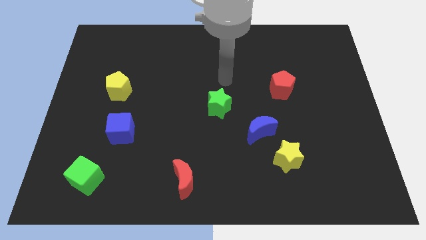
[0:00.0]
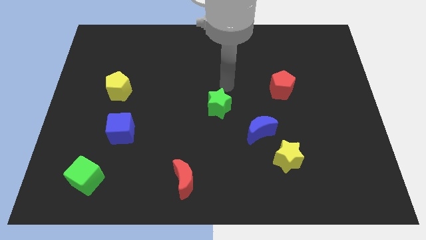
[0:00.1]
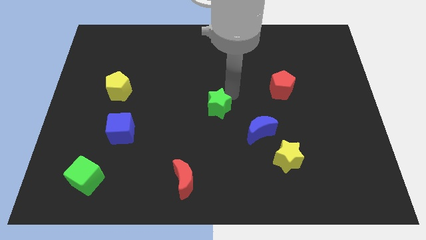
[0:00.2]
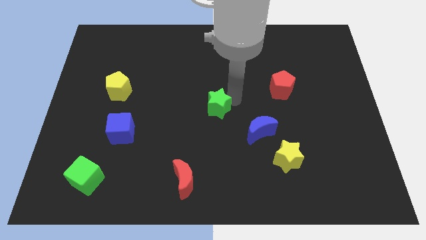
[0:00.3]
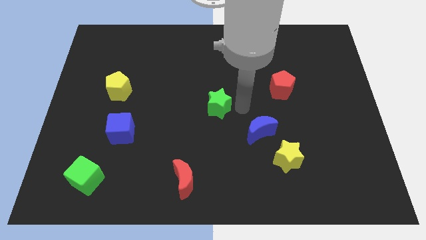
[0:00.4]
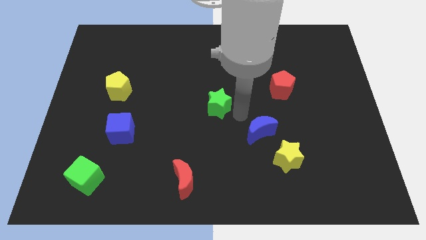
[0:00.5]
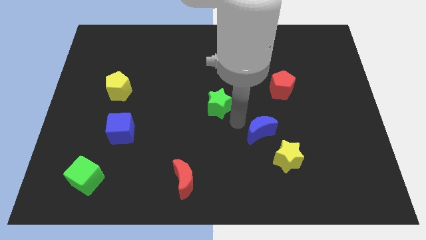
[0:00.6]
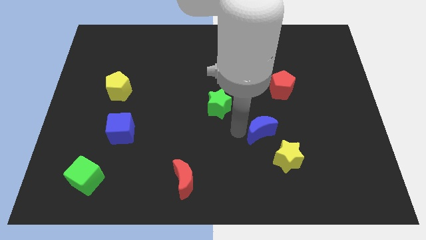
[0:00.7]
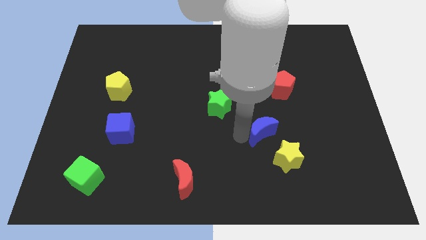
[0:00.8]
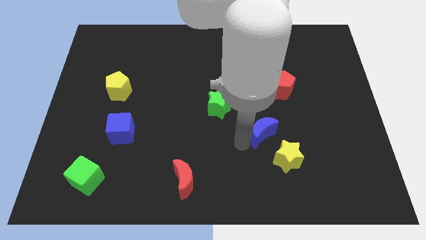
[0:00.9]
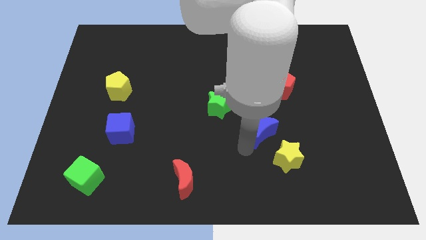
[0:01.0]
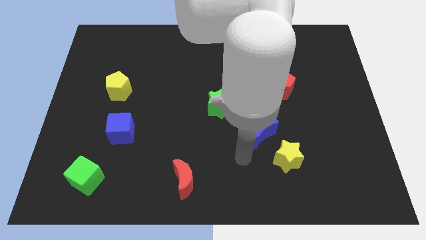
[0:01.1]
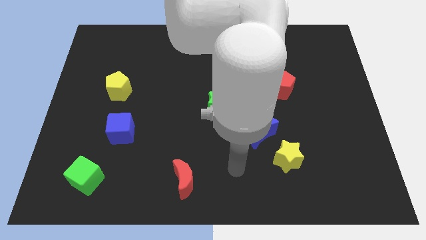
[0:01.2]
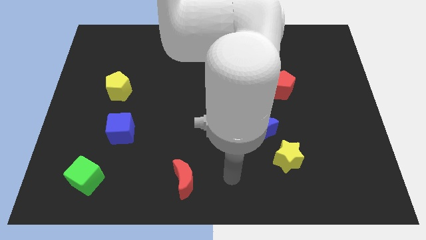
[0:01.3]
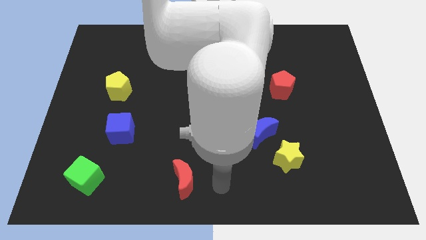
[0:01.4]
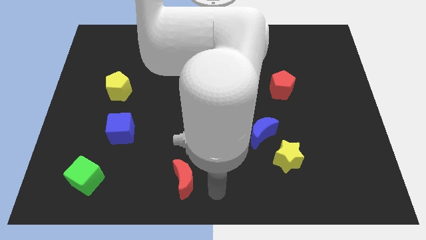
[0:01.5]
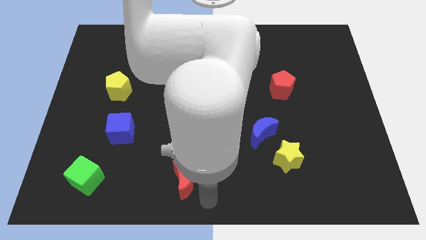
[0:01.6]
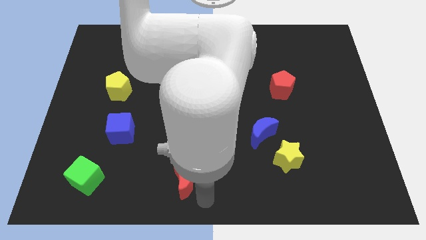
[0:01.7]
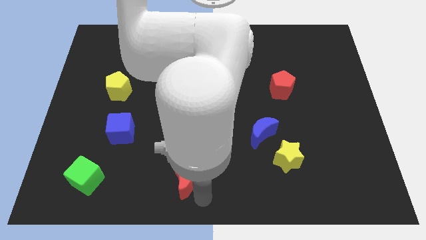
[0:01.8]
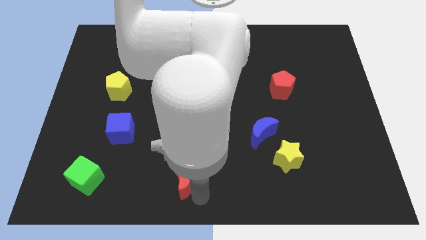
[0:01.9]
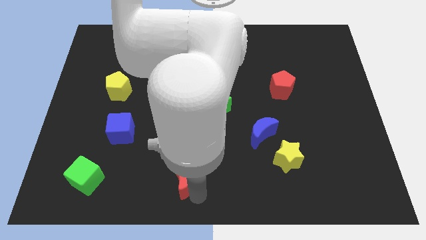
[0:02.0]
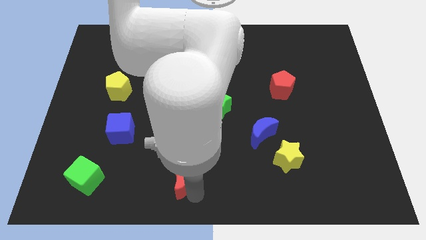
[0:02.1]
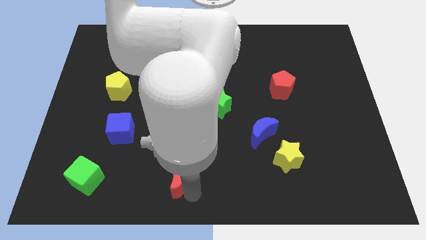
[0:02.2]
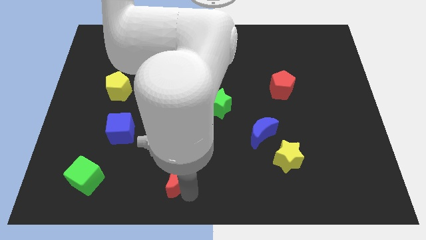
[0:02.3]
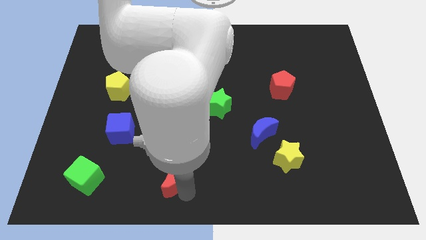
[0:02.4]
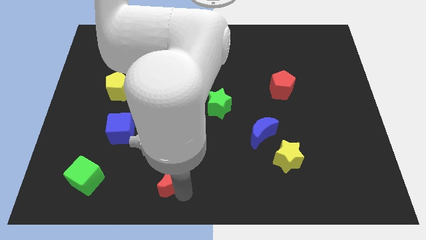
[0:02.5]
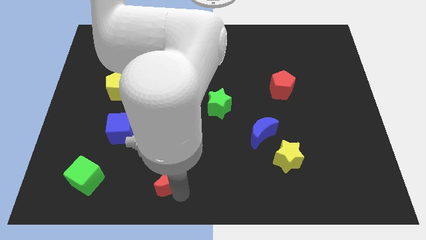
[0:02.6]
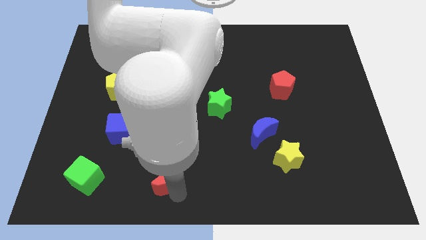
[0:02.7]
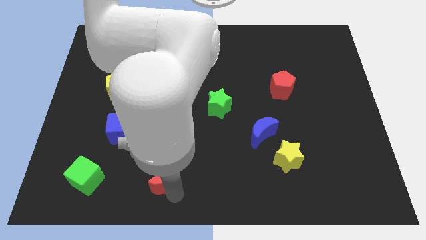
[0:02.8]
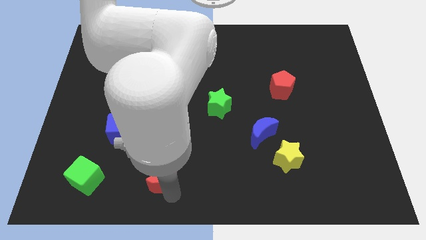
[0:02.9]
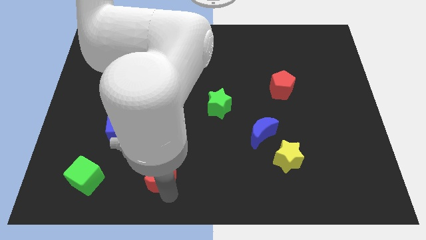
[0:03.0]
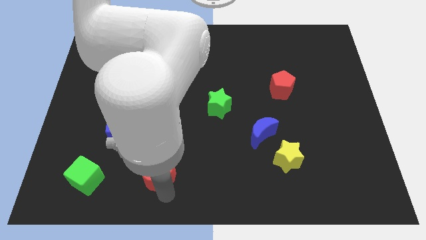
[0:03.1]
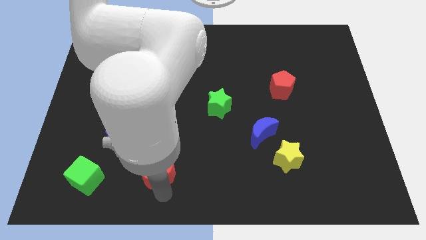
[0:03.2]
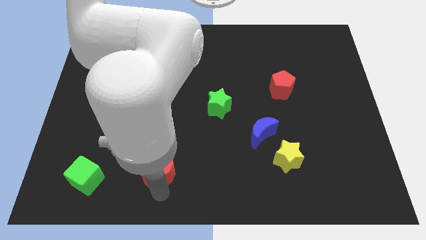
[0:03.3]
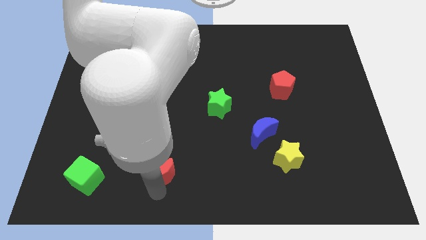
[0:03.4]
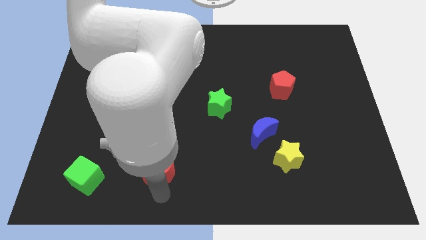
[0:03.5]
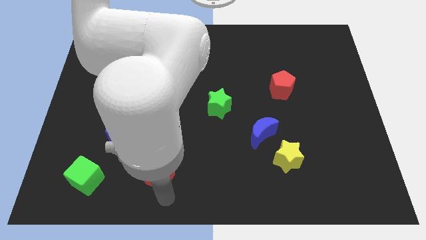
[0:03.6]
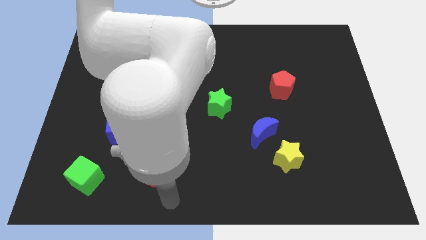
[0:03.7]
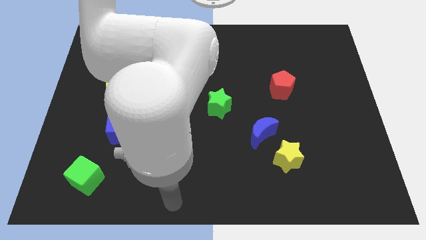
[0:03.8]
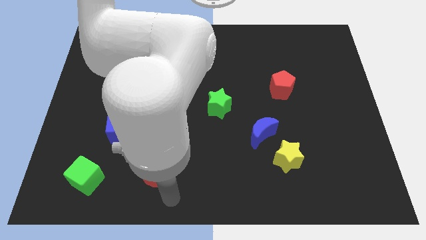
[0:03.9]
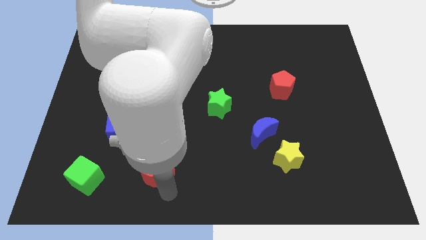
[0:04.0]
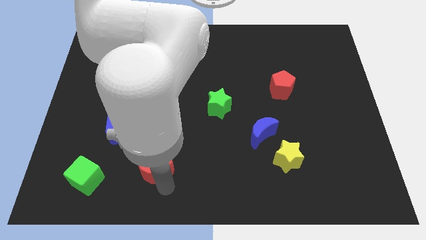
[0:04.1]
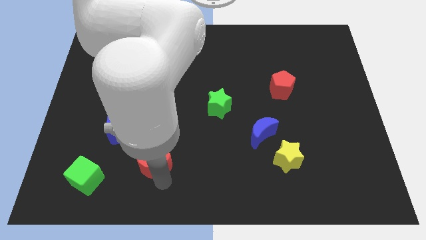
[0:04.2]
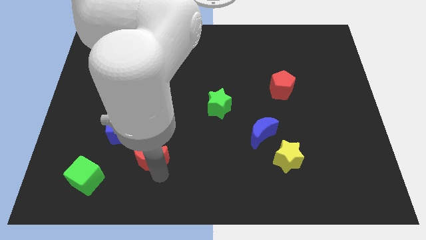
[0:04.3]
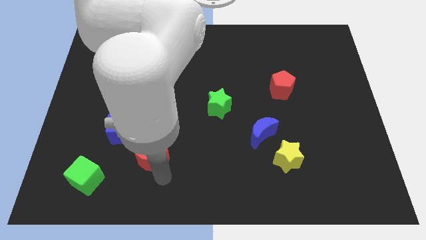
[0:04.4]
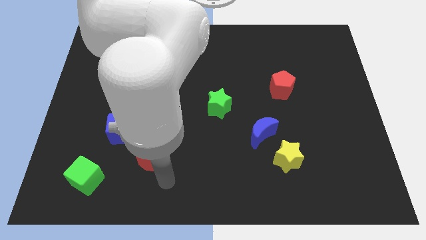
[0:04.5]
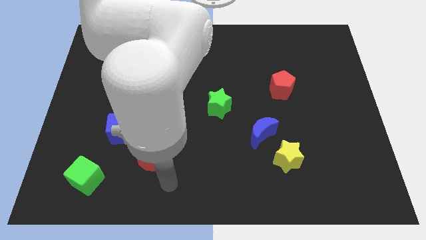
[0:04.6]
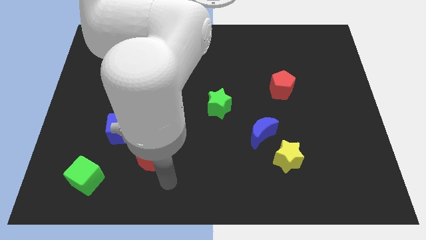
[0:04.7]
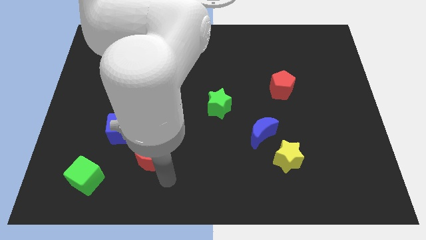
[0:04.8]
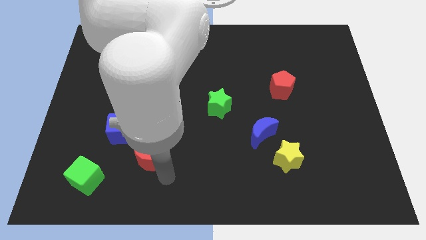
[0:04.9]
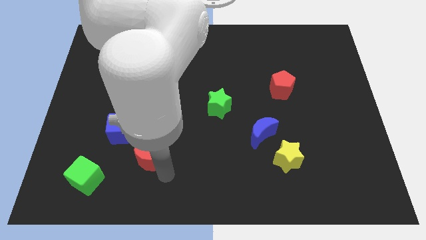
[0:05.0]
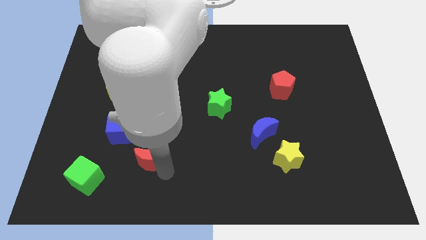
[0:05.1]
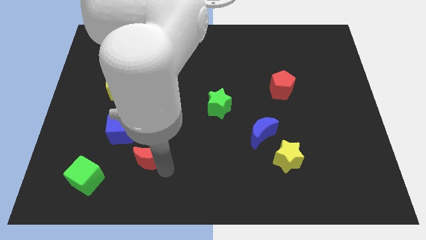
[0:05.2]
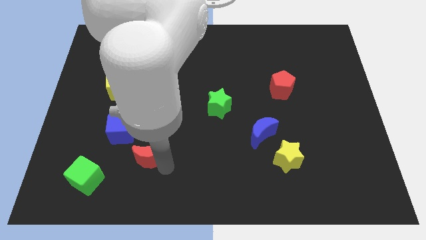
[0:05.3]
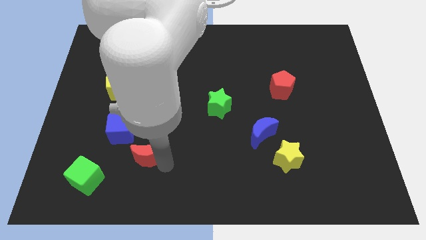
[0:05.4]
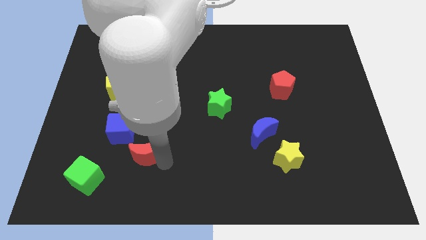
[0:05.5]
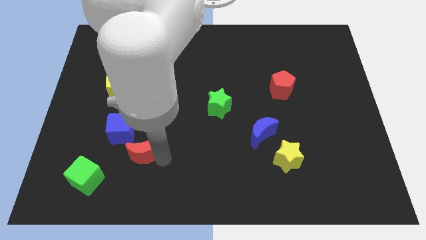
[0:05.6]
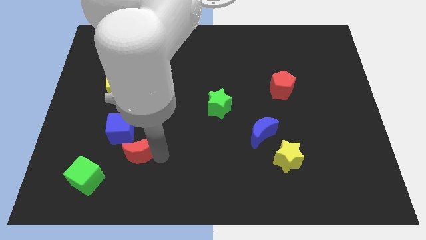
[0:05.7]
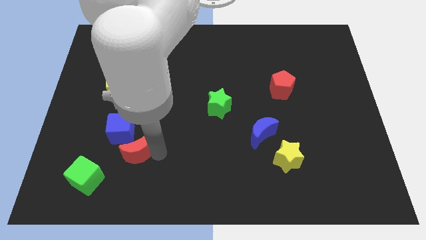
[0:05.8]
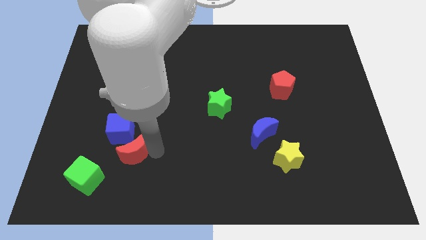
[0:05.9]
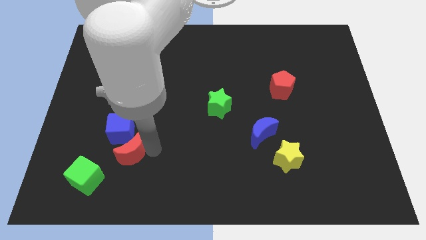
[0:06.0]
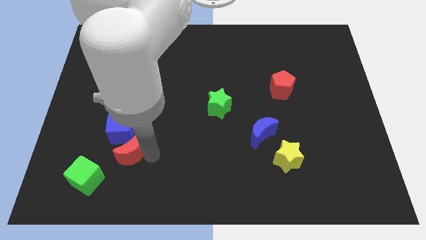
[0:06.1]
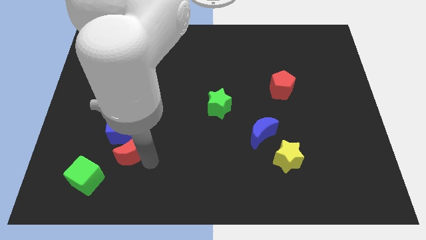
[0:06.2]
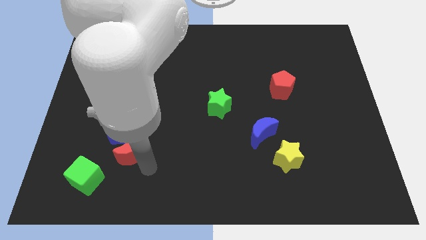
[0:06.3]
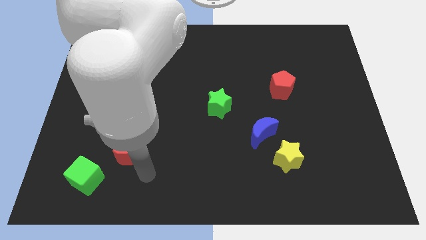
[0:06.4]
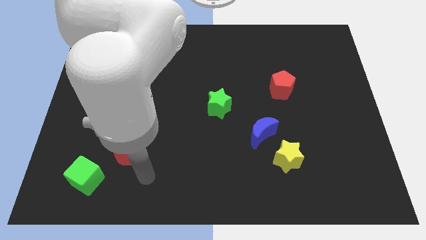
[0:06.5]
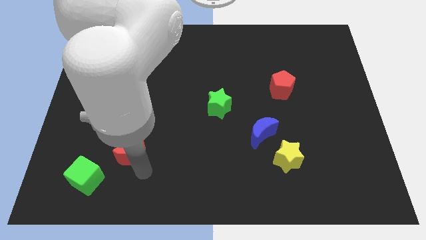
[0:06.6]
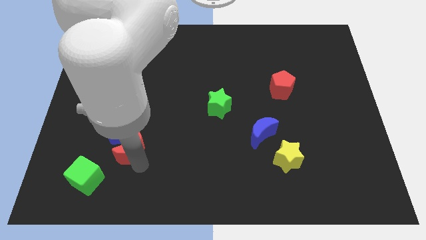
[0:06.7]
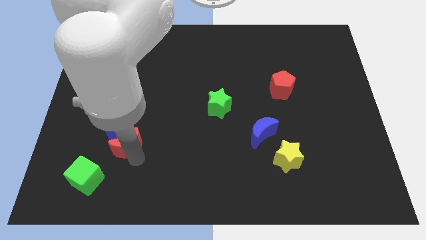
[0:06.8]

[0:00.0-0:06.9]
put the red moon towards the blue cube

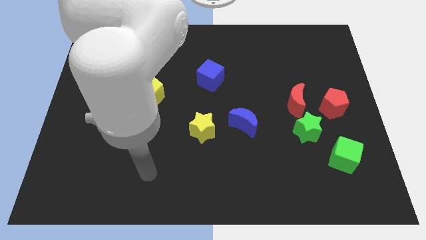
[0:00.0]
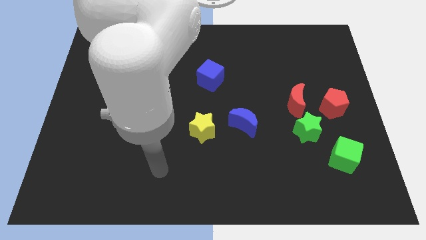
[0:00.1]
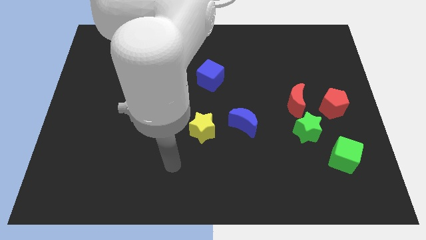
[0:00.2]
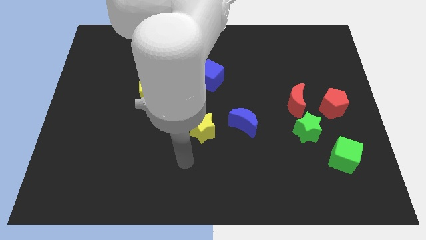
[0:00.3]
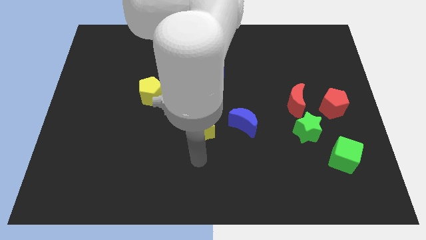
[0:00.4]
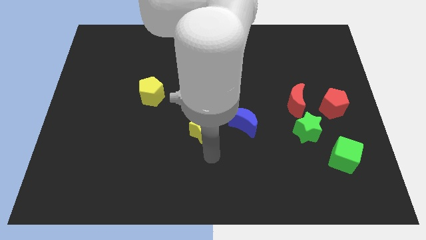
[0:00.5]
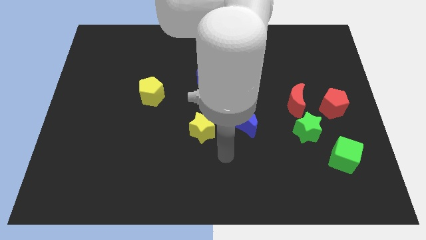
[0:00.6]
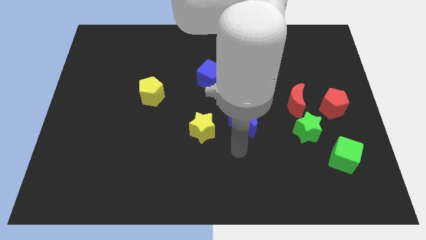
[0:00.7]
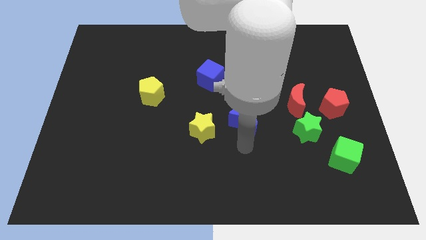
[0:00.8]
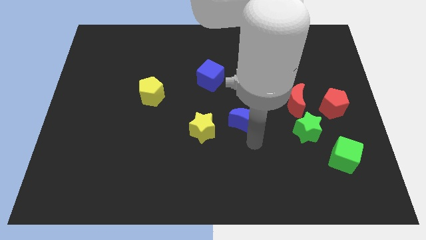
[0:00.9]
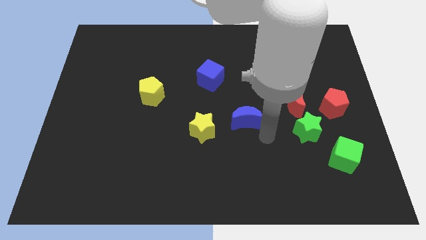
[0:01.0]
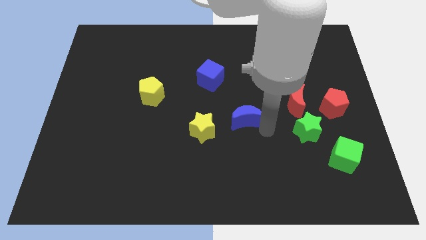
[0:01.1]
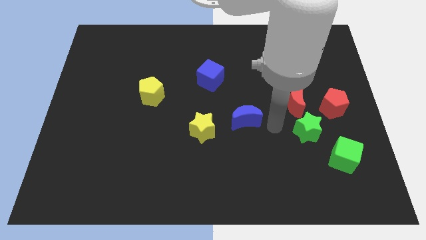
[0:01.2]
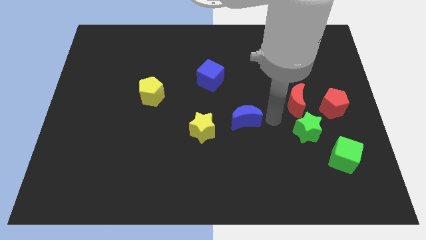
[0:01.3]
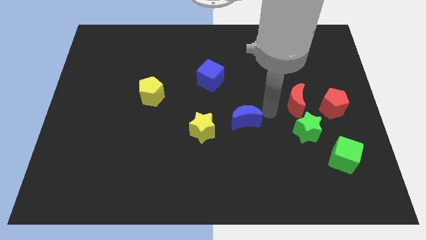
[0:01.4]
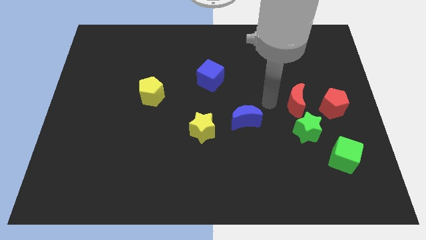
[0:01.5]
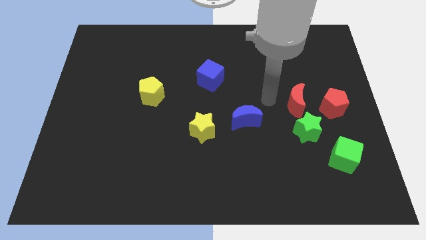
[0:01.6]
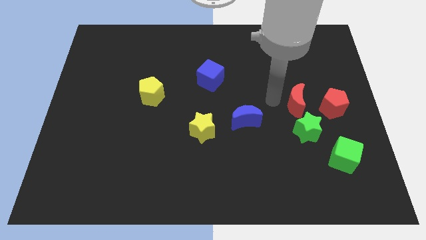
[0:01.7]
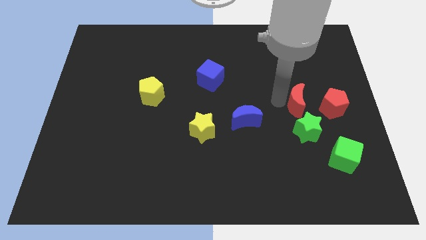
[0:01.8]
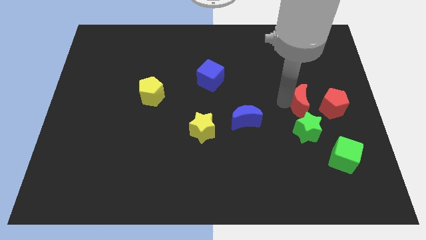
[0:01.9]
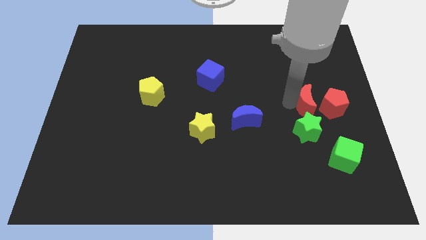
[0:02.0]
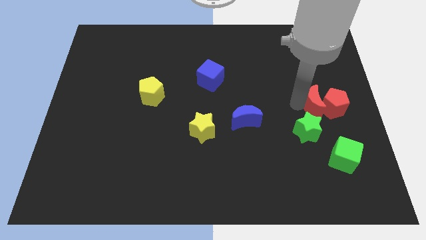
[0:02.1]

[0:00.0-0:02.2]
move the red moon towards the red pentagon
